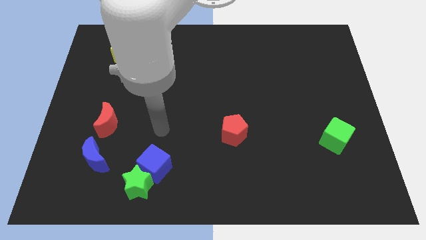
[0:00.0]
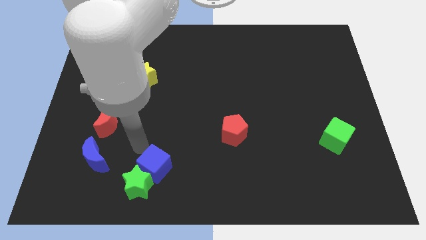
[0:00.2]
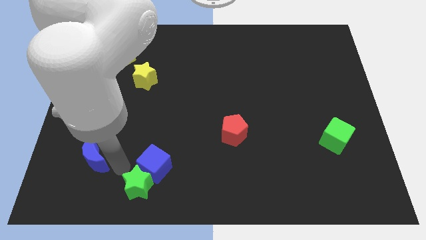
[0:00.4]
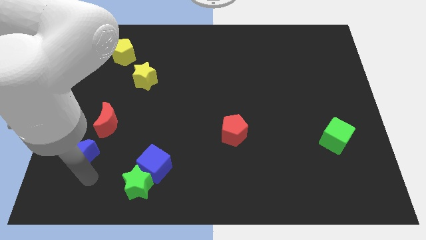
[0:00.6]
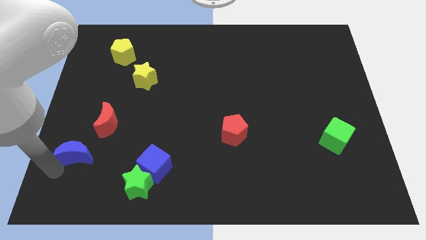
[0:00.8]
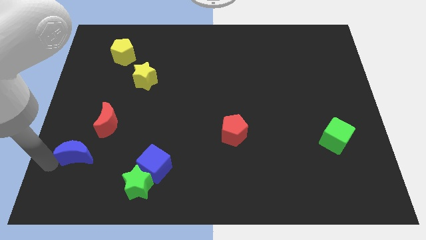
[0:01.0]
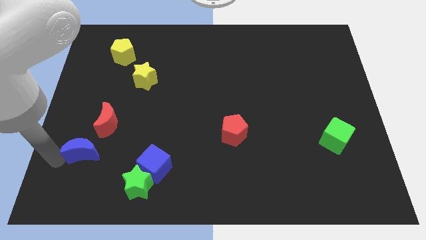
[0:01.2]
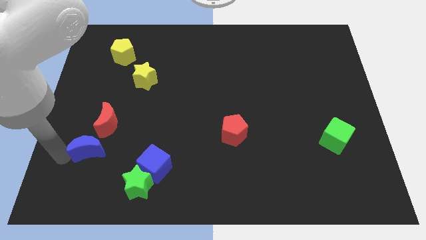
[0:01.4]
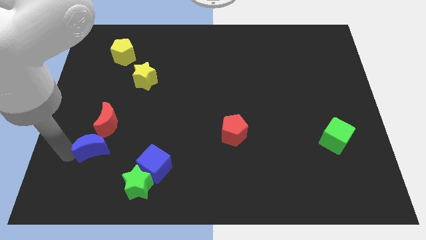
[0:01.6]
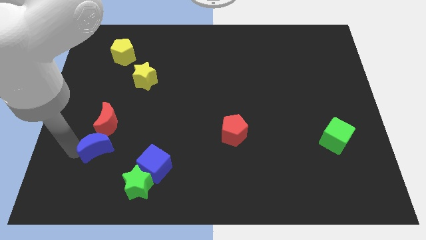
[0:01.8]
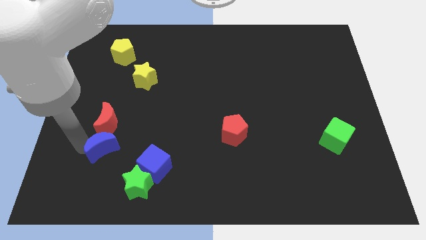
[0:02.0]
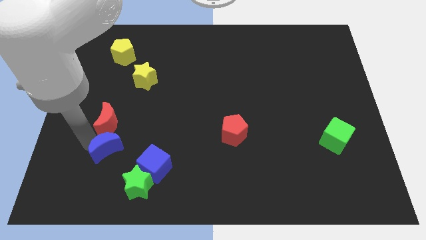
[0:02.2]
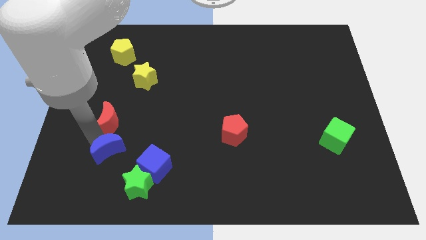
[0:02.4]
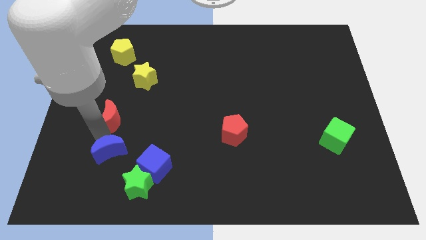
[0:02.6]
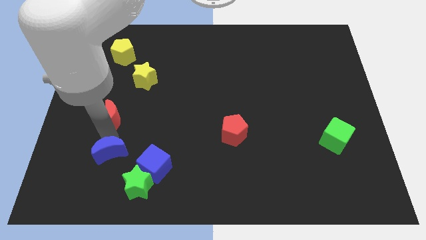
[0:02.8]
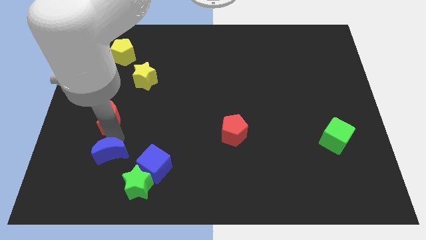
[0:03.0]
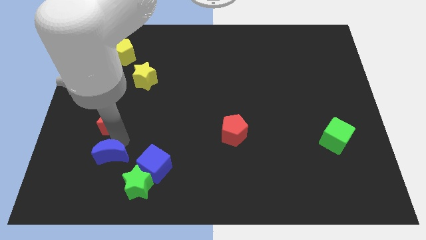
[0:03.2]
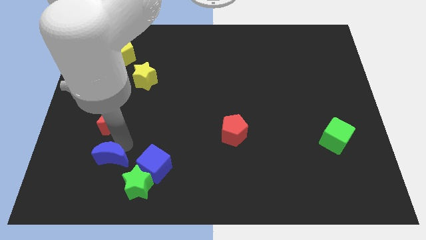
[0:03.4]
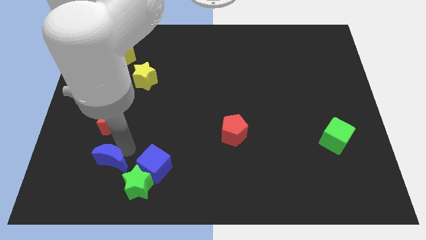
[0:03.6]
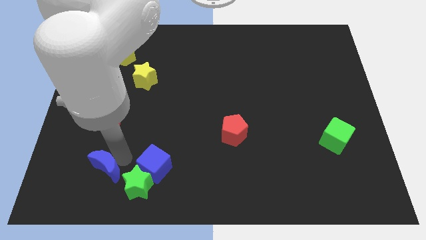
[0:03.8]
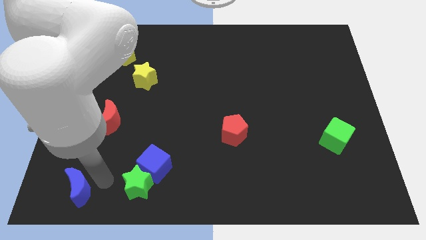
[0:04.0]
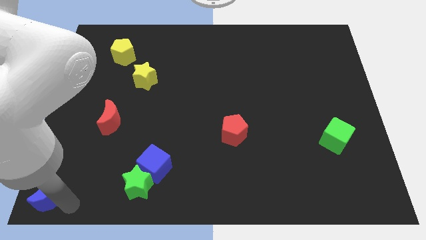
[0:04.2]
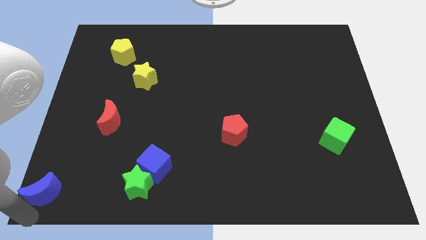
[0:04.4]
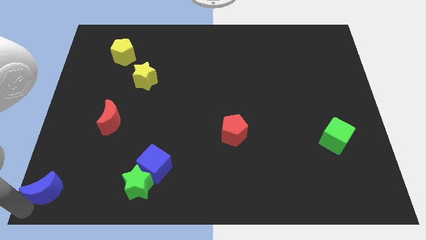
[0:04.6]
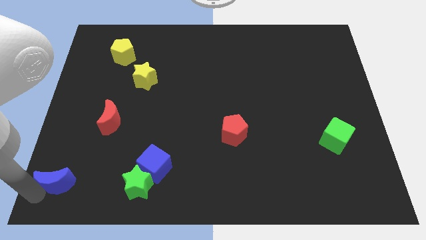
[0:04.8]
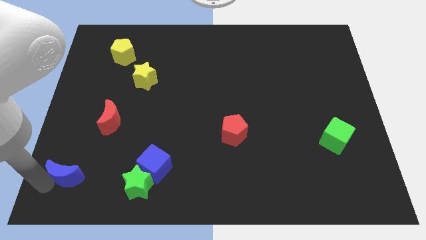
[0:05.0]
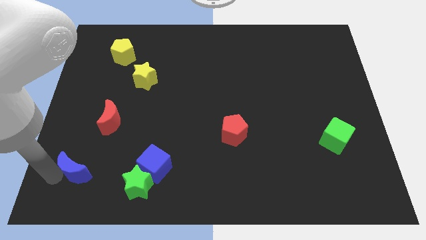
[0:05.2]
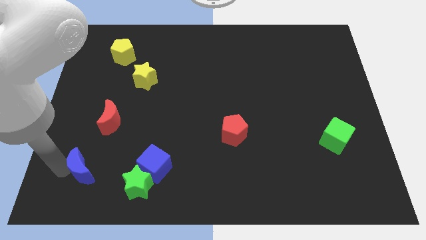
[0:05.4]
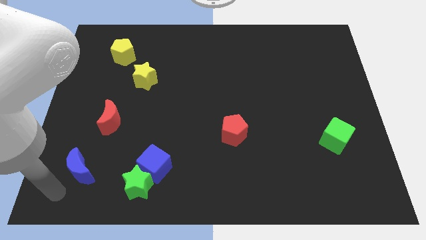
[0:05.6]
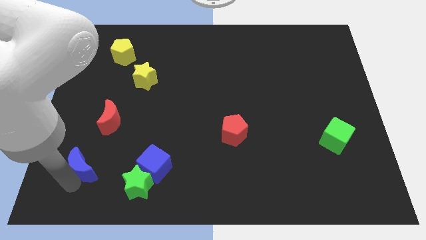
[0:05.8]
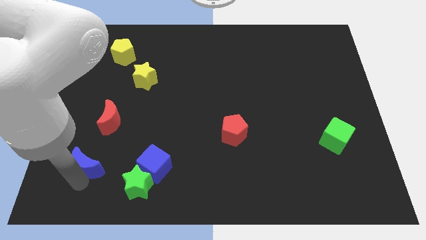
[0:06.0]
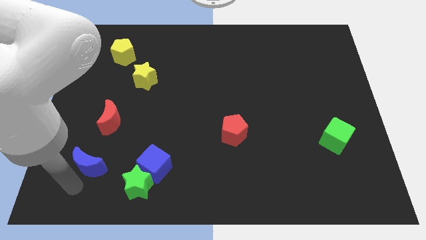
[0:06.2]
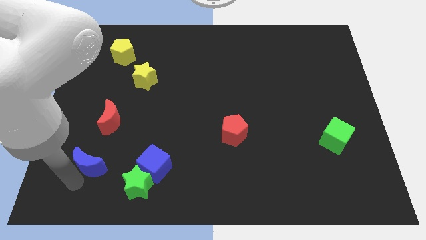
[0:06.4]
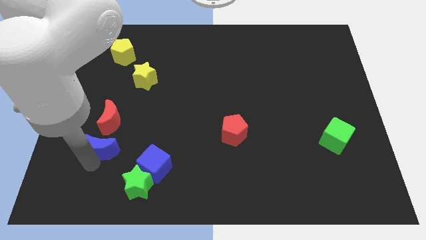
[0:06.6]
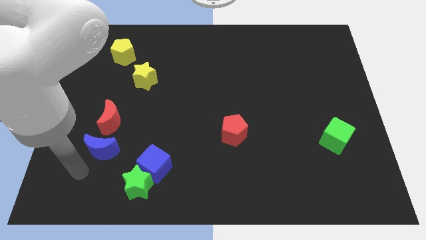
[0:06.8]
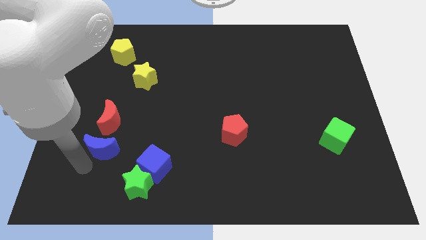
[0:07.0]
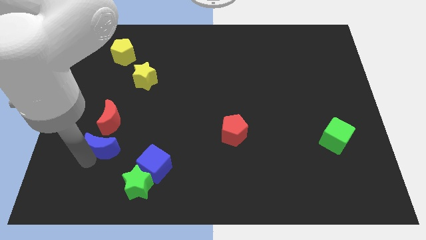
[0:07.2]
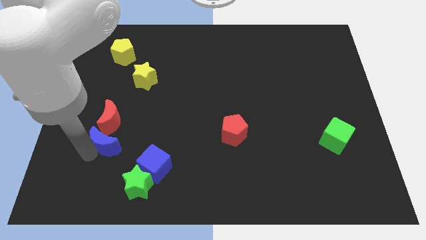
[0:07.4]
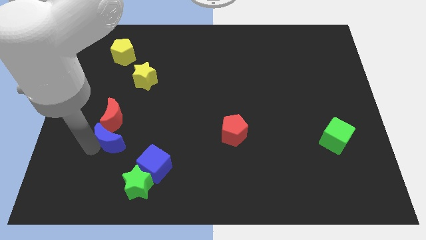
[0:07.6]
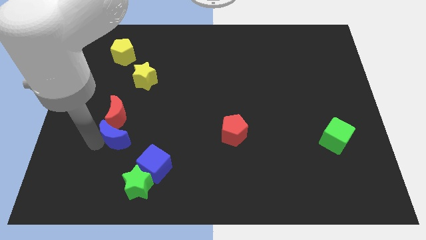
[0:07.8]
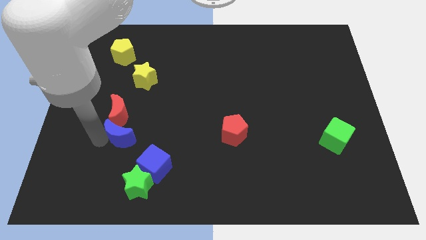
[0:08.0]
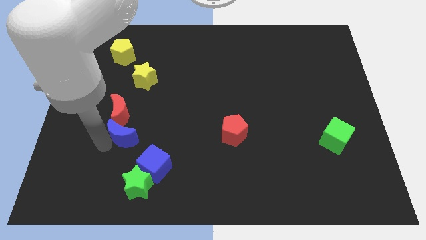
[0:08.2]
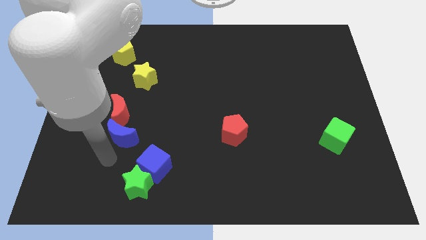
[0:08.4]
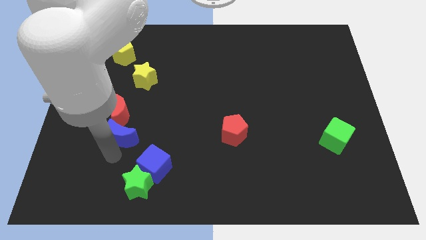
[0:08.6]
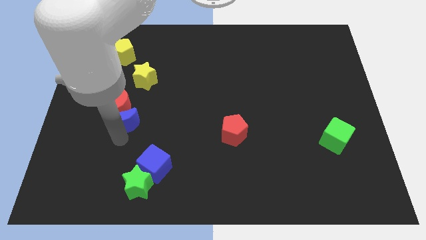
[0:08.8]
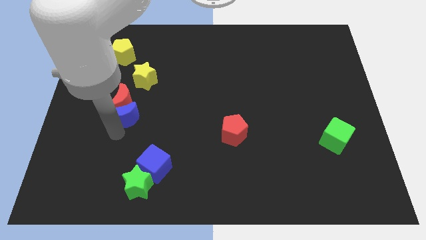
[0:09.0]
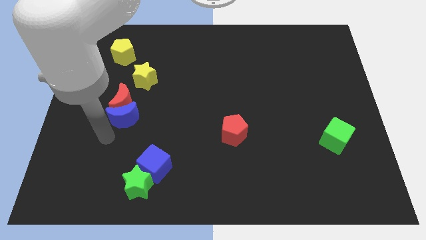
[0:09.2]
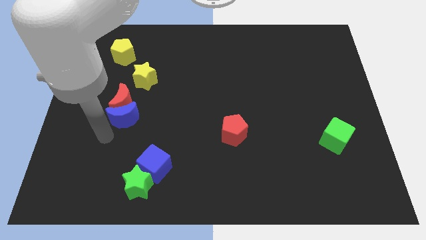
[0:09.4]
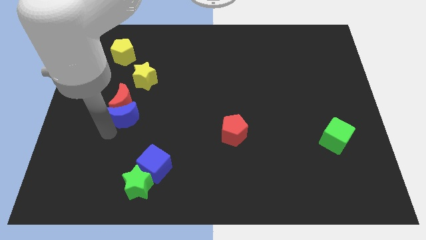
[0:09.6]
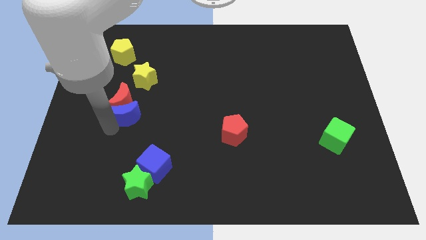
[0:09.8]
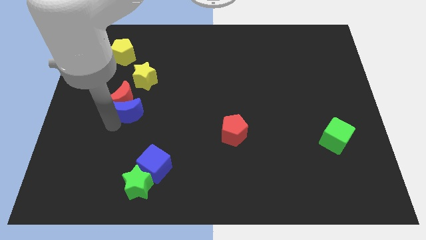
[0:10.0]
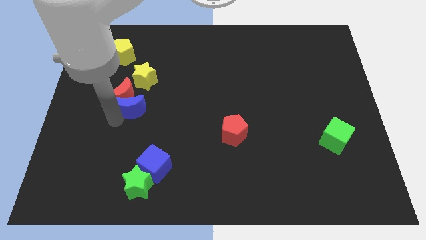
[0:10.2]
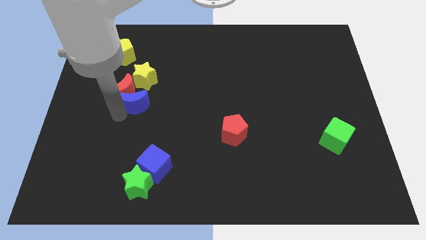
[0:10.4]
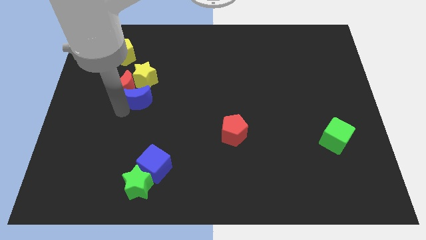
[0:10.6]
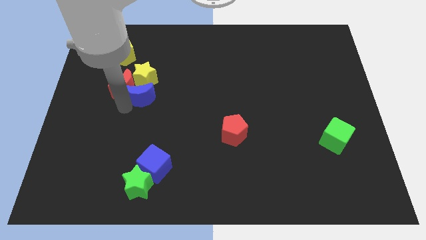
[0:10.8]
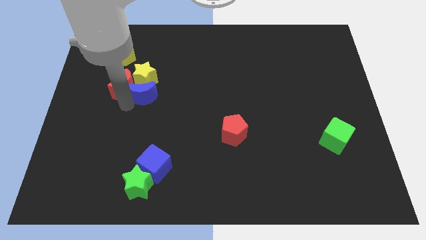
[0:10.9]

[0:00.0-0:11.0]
put the blue moon towards the yellow star
